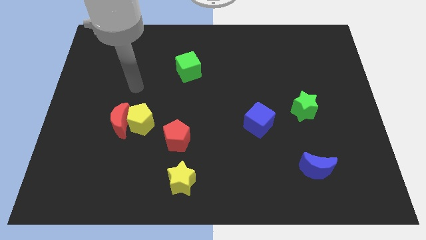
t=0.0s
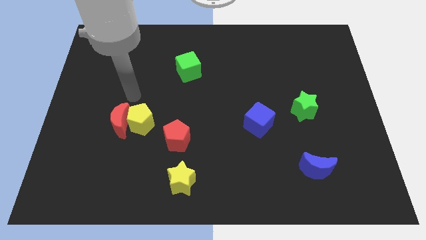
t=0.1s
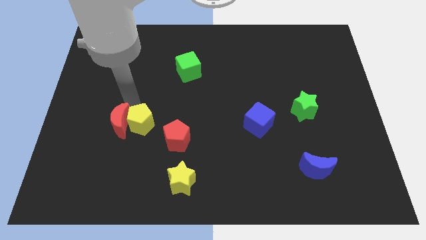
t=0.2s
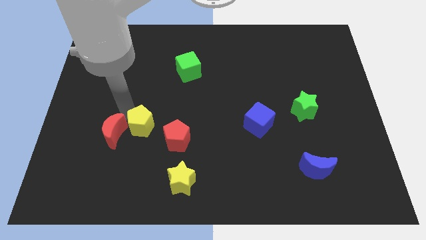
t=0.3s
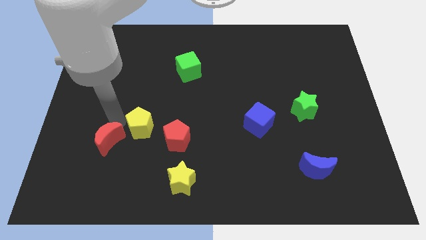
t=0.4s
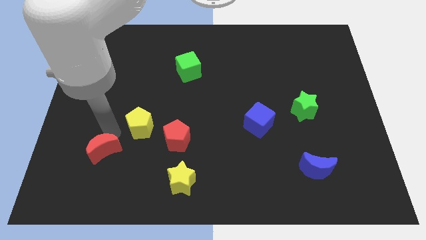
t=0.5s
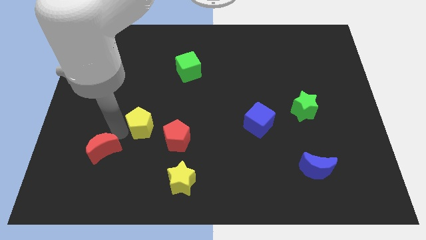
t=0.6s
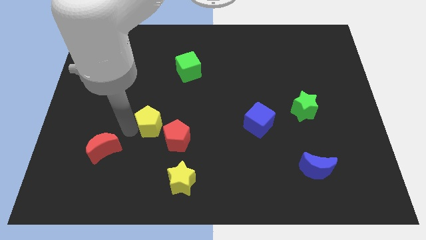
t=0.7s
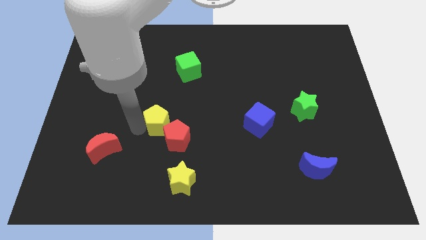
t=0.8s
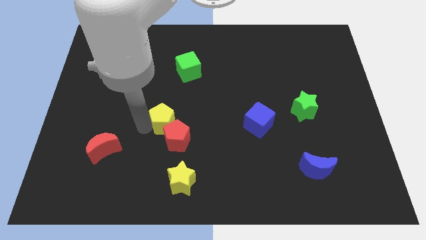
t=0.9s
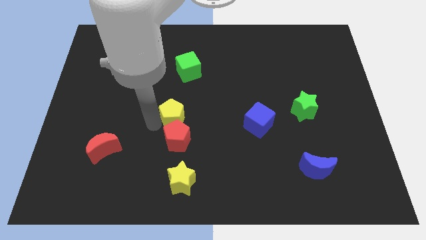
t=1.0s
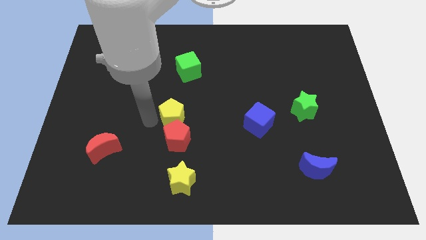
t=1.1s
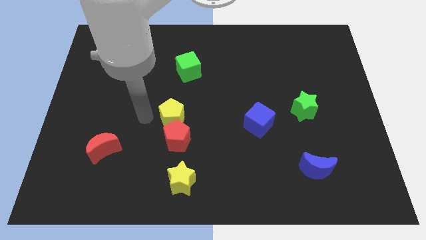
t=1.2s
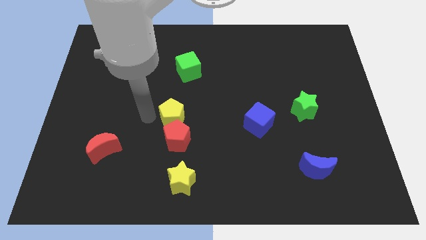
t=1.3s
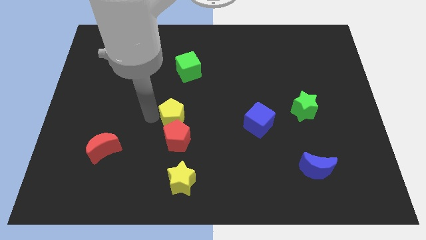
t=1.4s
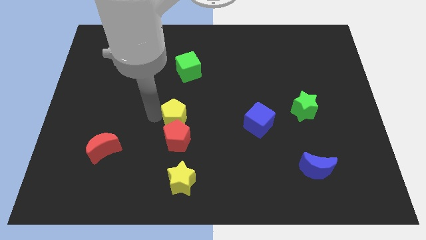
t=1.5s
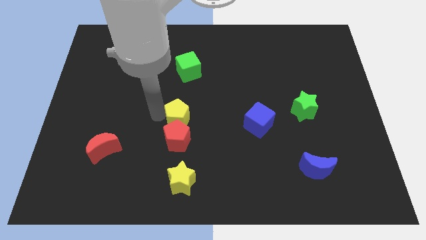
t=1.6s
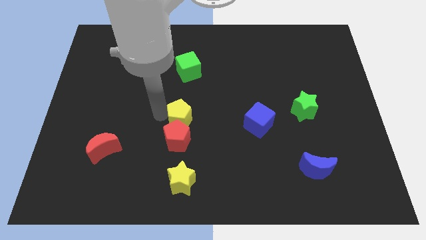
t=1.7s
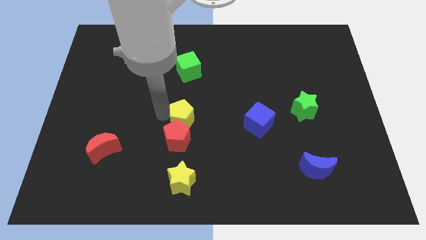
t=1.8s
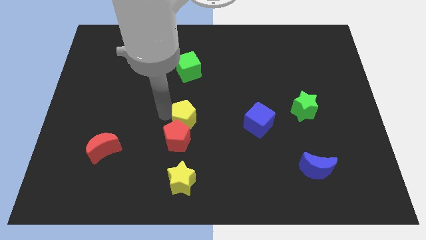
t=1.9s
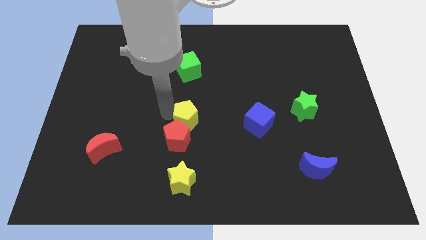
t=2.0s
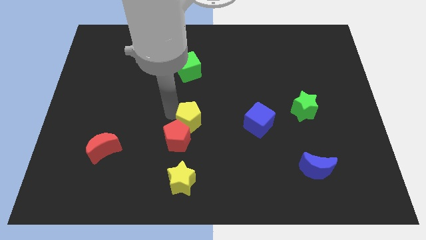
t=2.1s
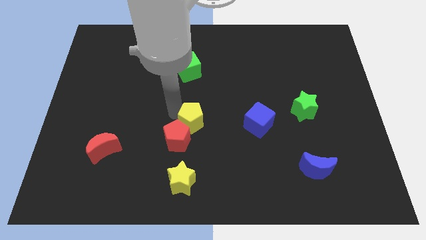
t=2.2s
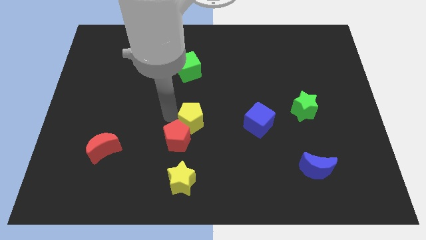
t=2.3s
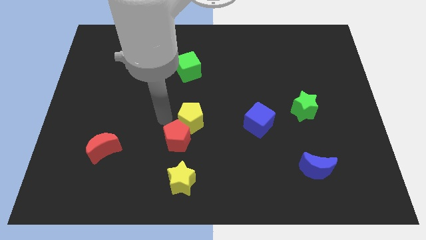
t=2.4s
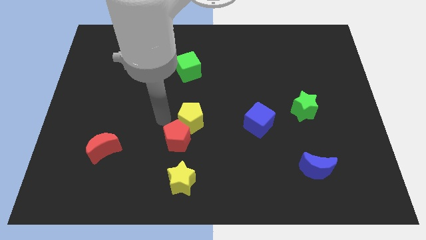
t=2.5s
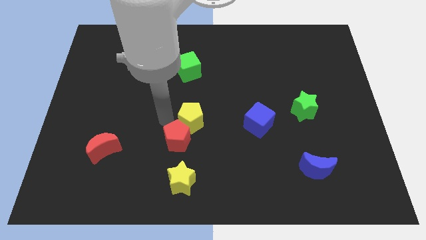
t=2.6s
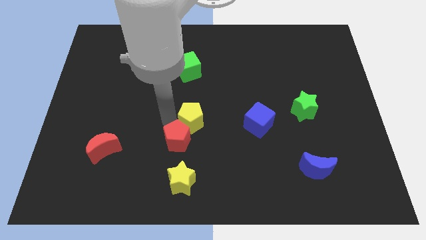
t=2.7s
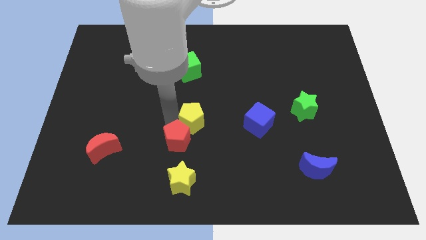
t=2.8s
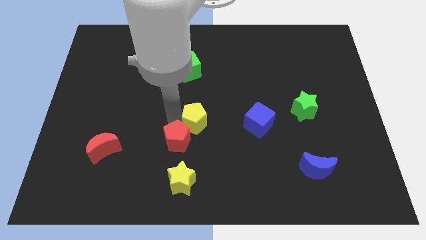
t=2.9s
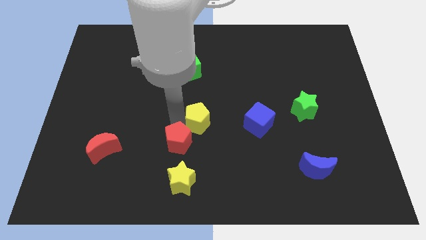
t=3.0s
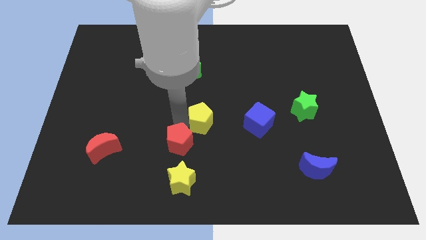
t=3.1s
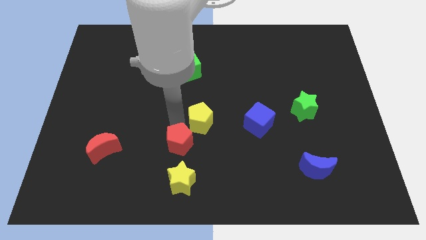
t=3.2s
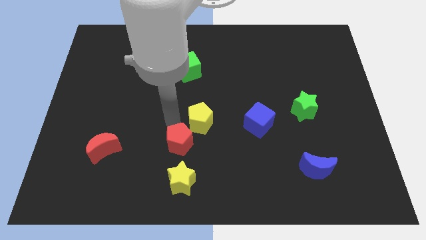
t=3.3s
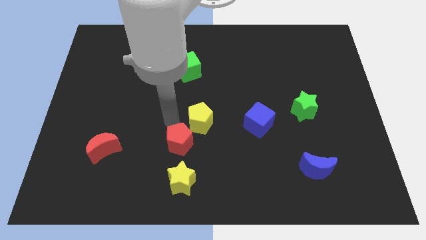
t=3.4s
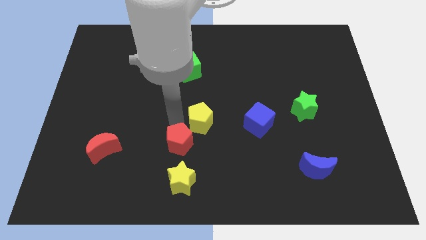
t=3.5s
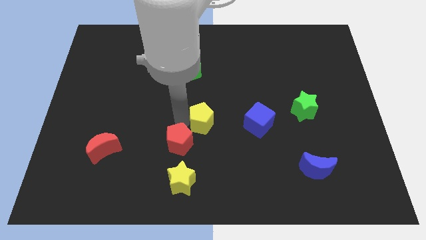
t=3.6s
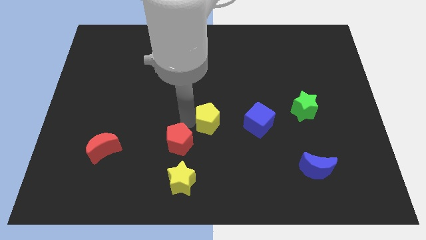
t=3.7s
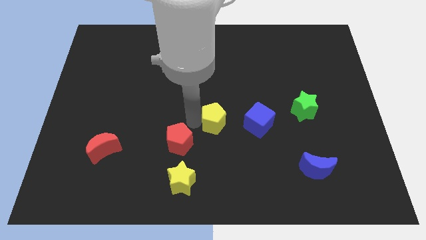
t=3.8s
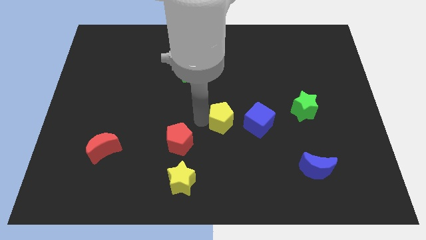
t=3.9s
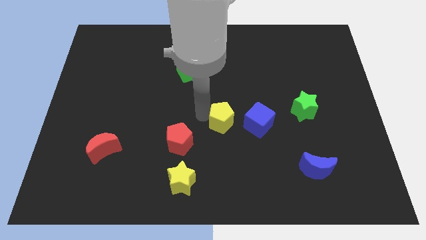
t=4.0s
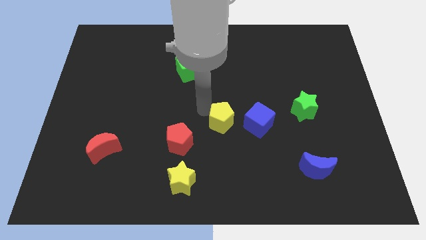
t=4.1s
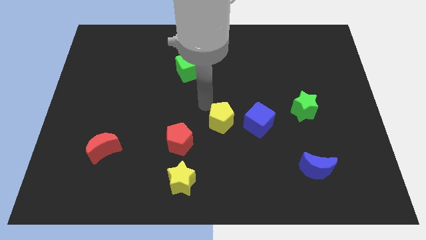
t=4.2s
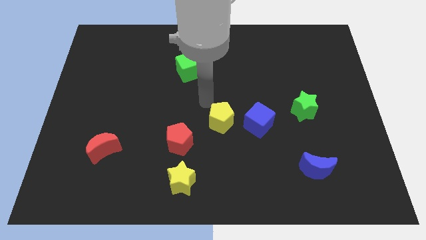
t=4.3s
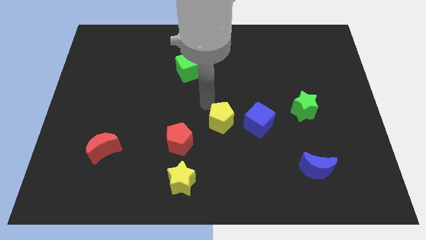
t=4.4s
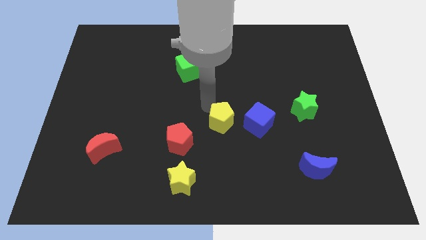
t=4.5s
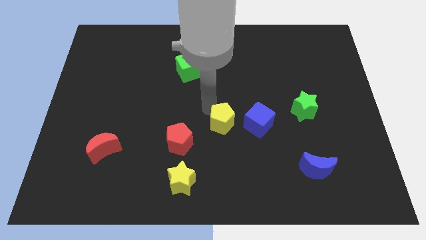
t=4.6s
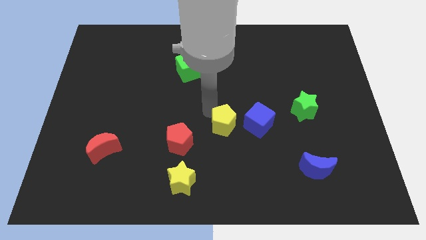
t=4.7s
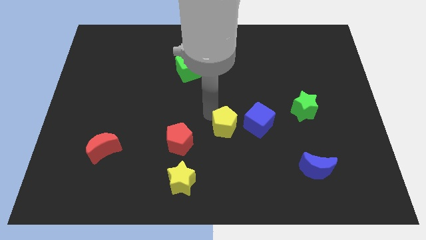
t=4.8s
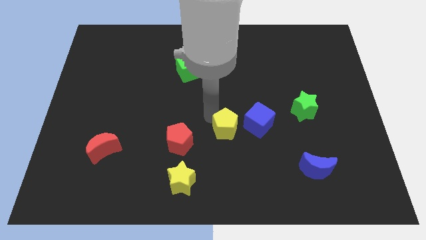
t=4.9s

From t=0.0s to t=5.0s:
slide the yellow pentagon to the bottom left side of the blue cube

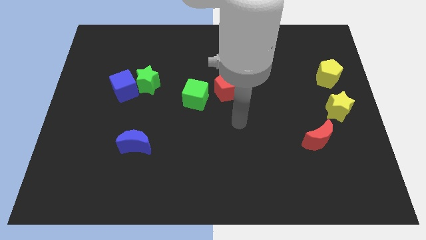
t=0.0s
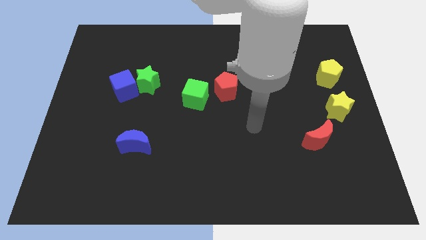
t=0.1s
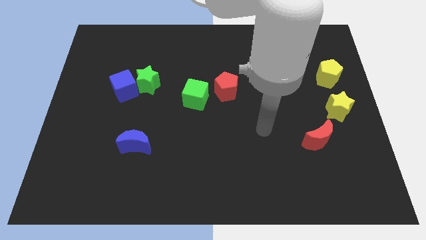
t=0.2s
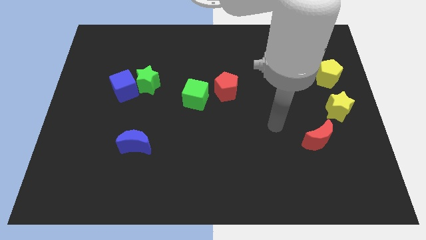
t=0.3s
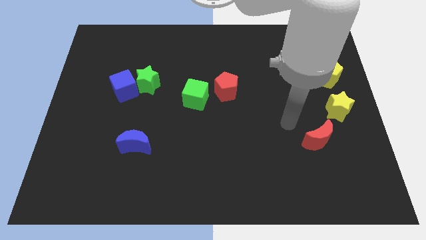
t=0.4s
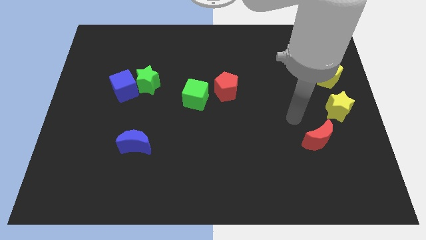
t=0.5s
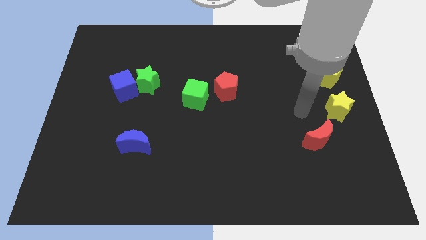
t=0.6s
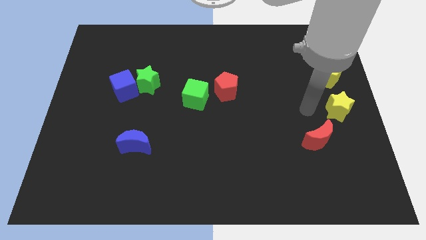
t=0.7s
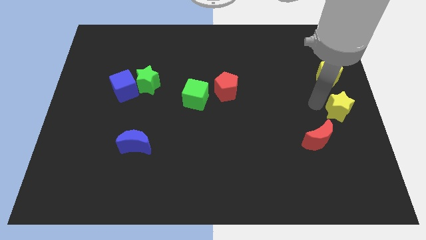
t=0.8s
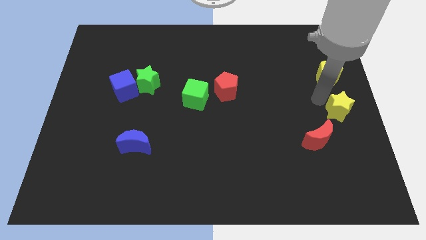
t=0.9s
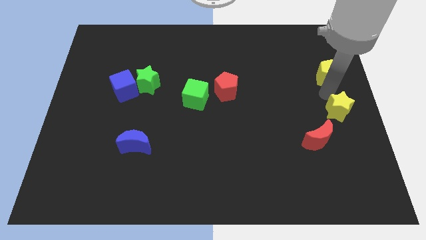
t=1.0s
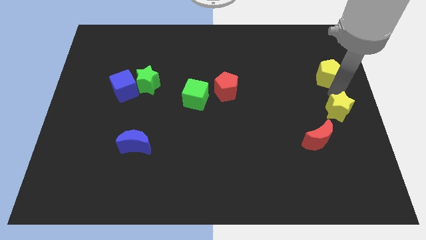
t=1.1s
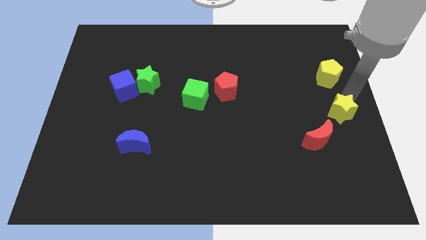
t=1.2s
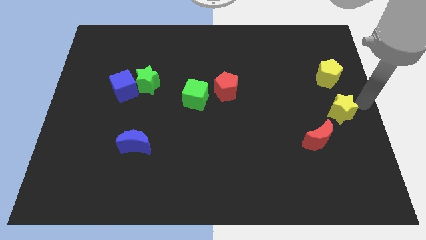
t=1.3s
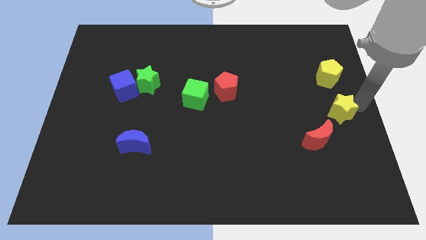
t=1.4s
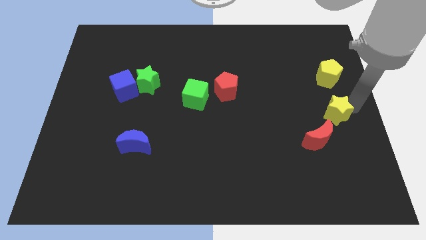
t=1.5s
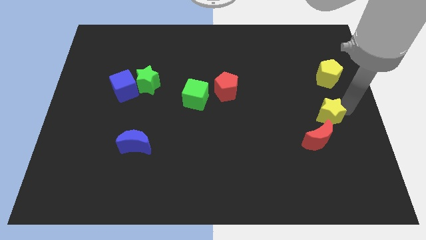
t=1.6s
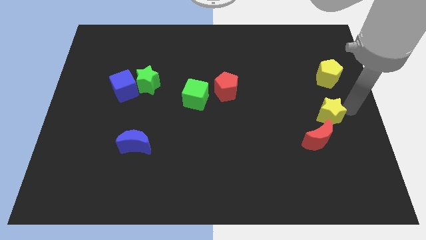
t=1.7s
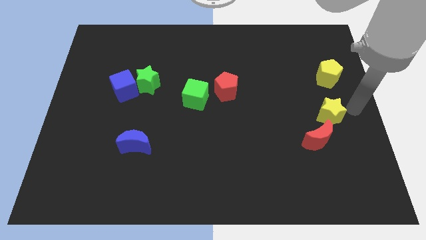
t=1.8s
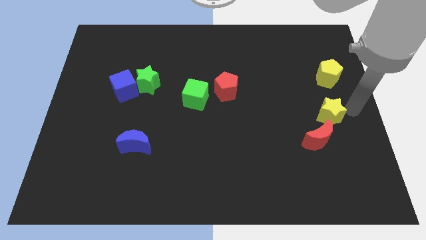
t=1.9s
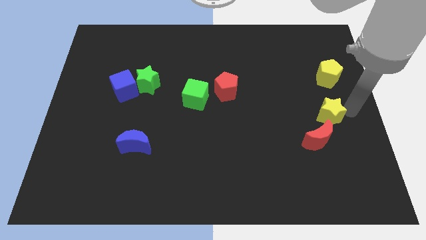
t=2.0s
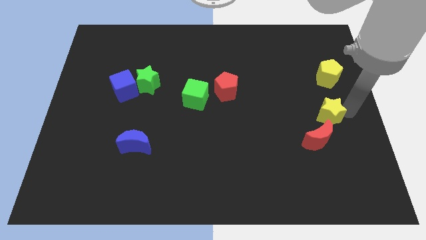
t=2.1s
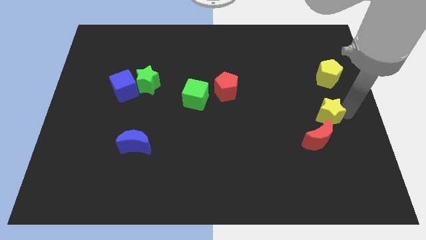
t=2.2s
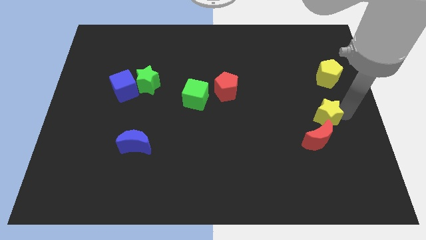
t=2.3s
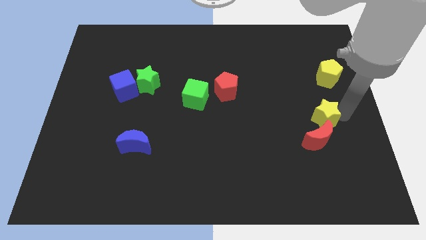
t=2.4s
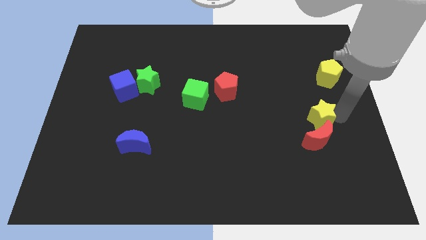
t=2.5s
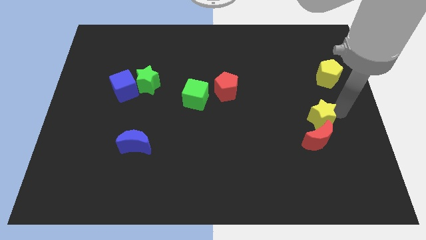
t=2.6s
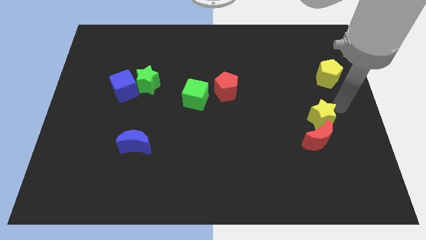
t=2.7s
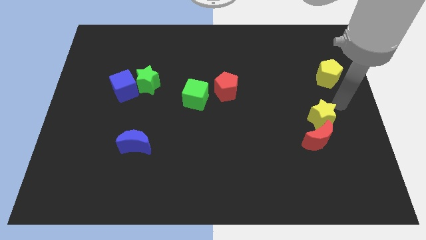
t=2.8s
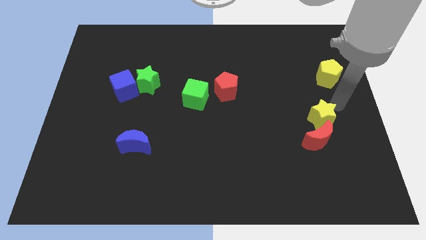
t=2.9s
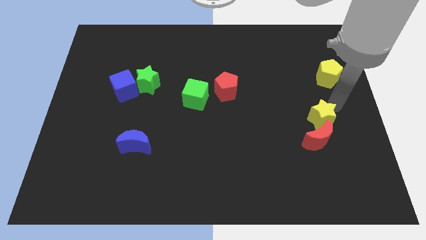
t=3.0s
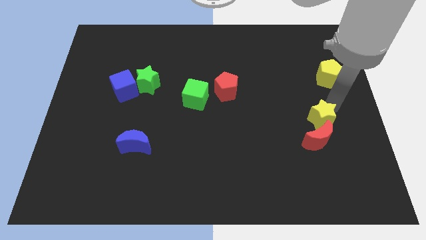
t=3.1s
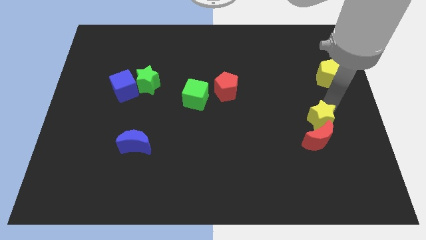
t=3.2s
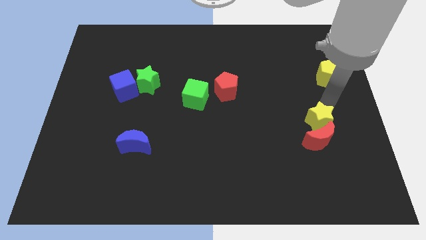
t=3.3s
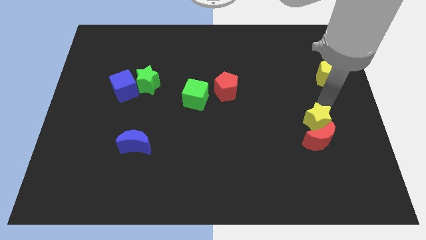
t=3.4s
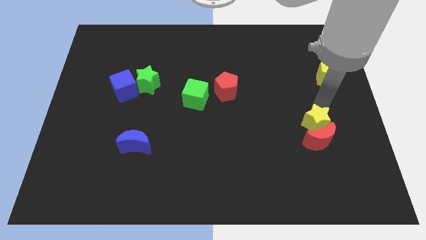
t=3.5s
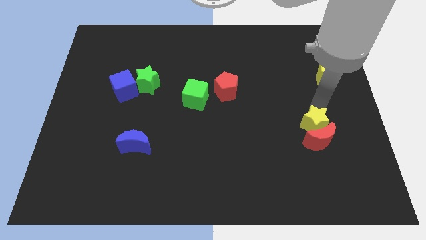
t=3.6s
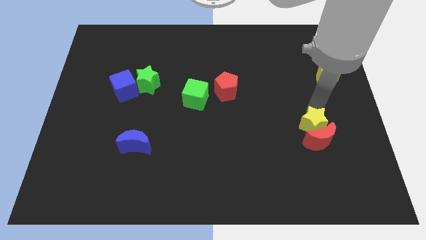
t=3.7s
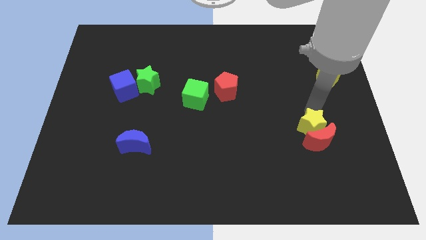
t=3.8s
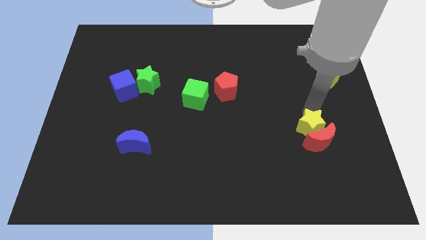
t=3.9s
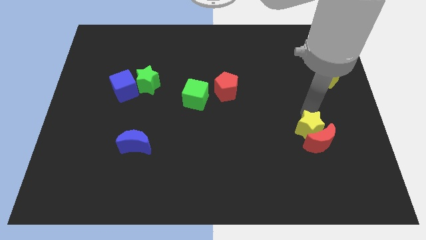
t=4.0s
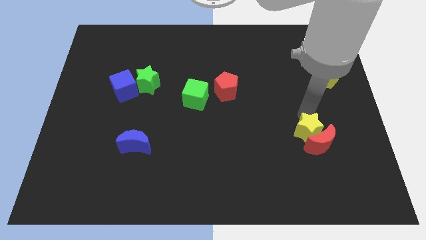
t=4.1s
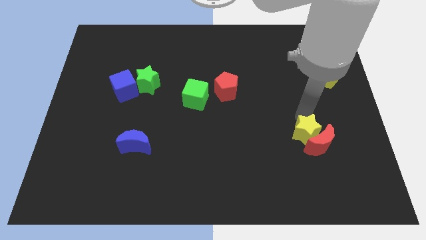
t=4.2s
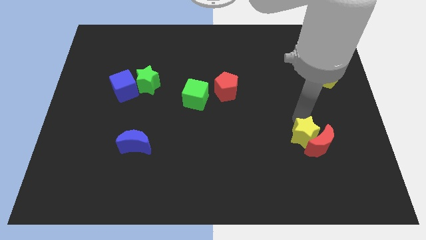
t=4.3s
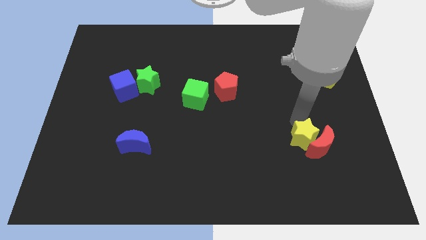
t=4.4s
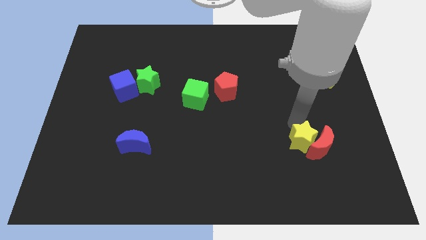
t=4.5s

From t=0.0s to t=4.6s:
slide the yellow star diagonally down and to the left of the red moon
